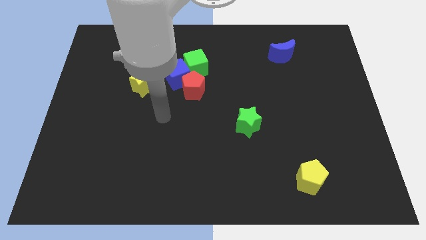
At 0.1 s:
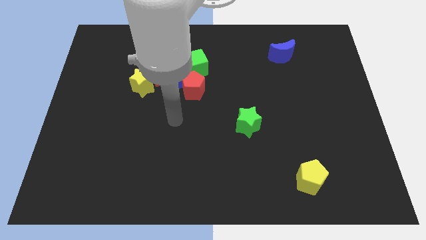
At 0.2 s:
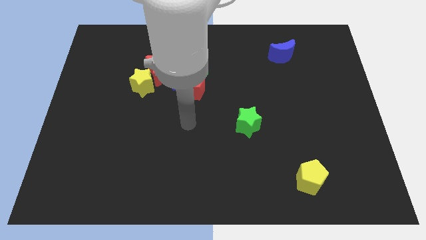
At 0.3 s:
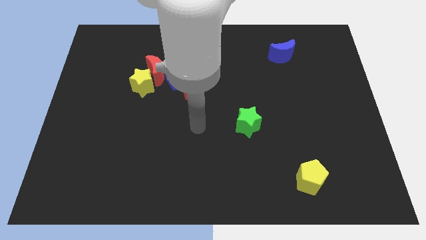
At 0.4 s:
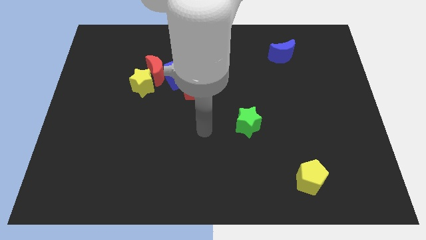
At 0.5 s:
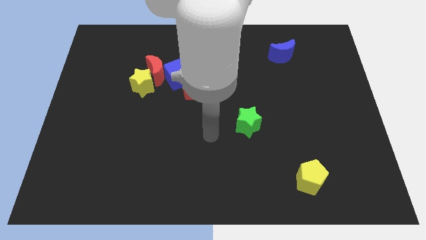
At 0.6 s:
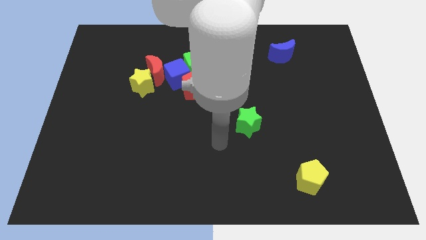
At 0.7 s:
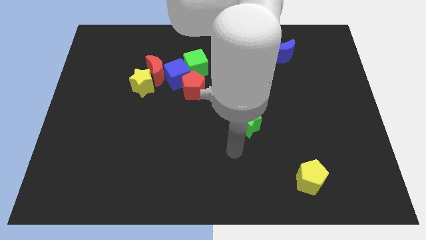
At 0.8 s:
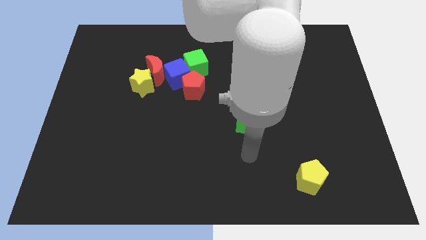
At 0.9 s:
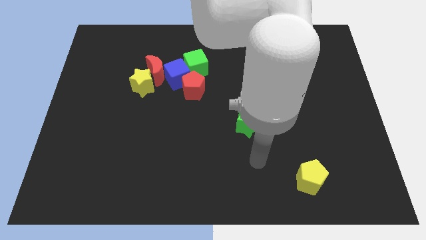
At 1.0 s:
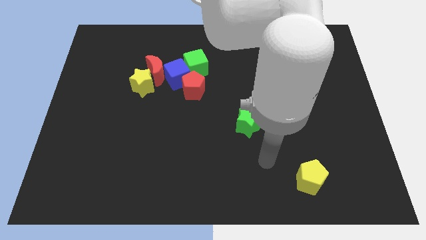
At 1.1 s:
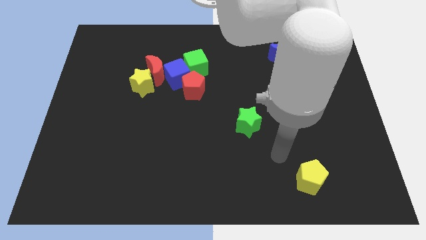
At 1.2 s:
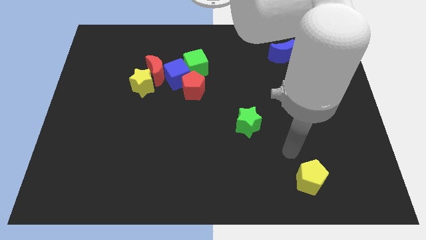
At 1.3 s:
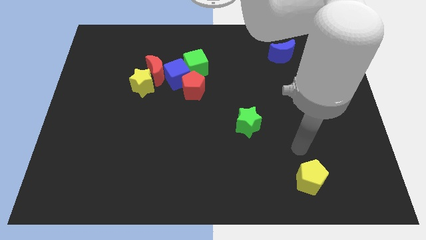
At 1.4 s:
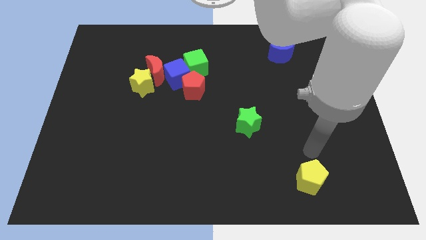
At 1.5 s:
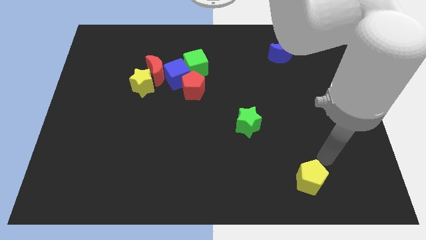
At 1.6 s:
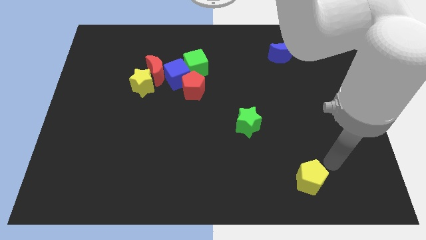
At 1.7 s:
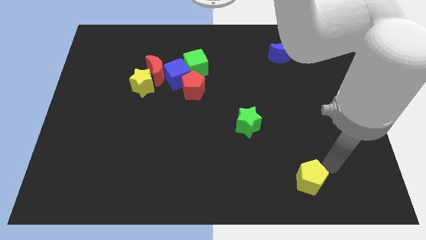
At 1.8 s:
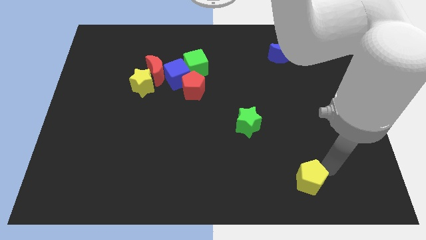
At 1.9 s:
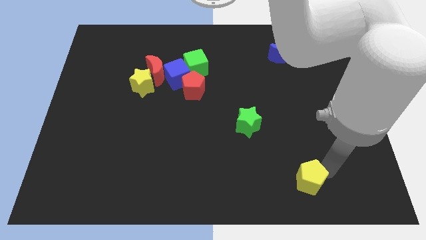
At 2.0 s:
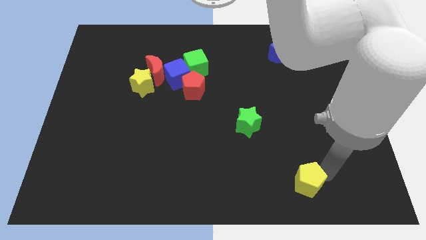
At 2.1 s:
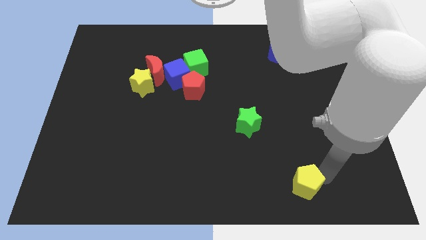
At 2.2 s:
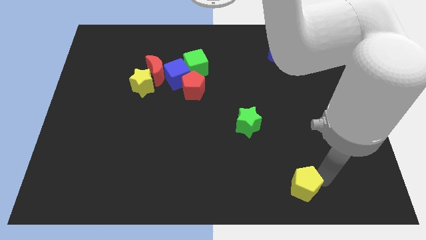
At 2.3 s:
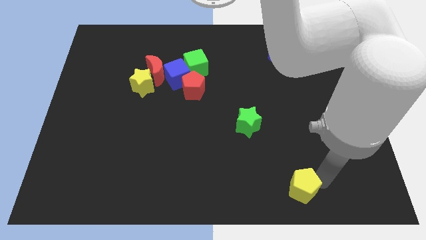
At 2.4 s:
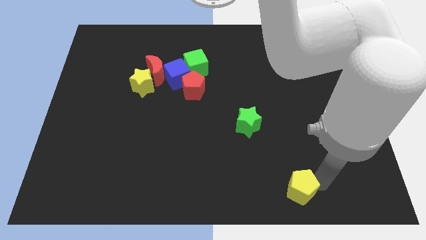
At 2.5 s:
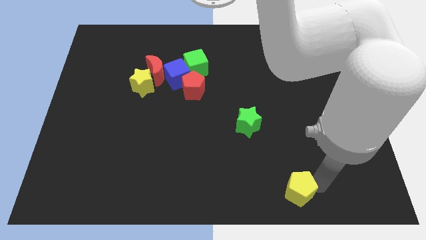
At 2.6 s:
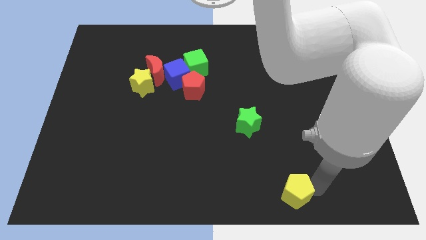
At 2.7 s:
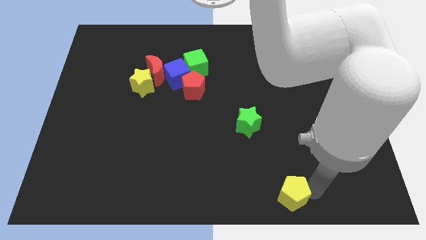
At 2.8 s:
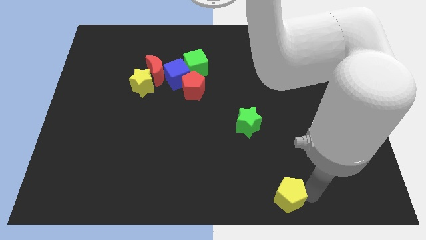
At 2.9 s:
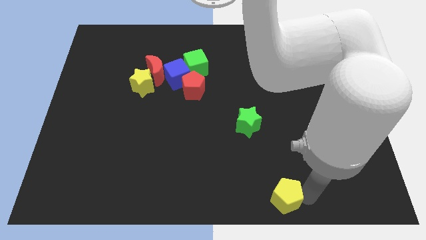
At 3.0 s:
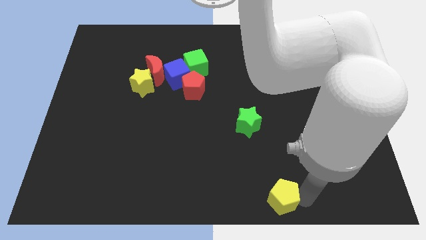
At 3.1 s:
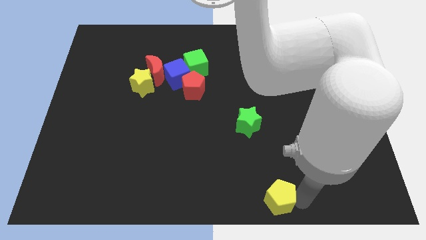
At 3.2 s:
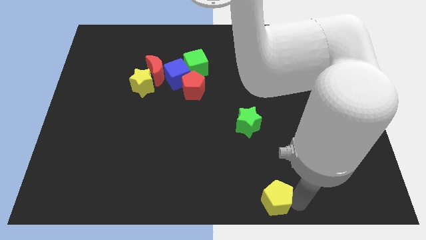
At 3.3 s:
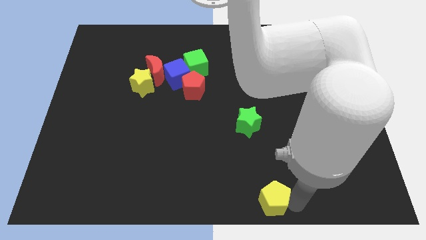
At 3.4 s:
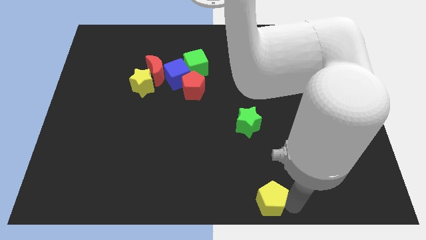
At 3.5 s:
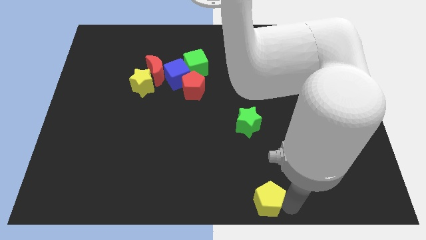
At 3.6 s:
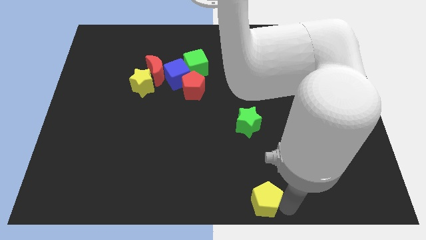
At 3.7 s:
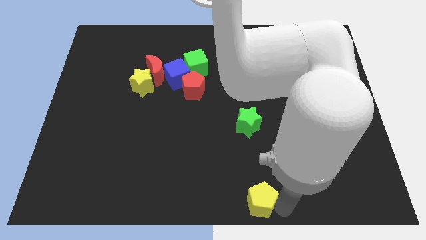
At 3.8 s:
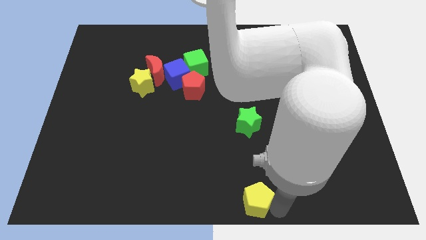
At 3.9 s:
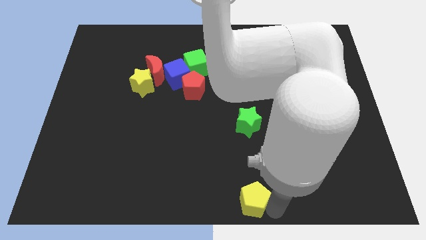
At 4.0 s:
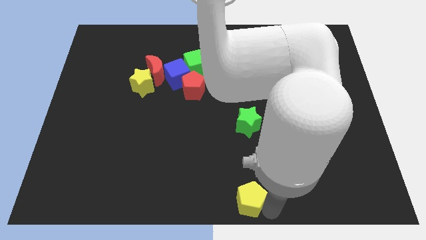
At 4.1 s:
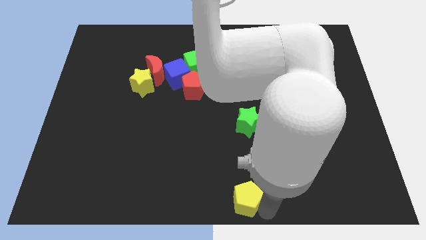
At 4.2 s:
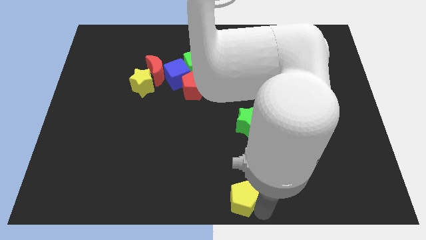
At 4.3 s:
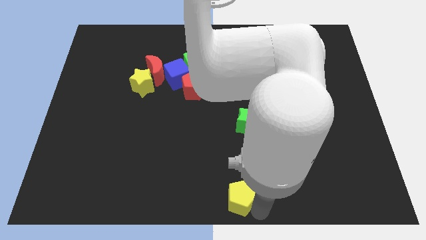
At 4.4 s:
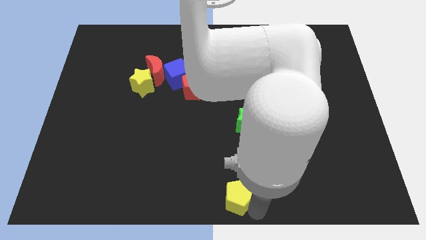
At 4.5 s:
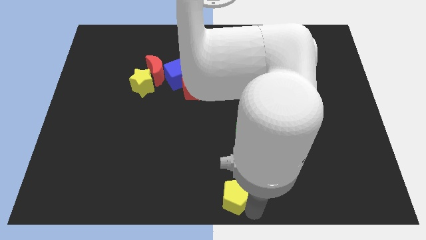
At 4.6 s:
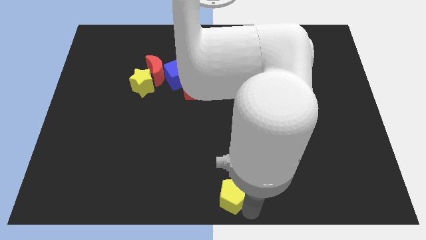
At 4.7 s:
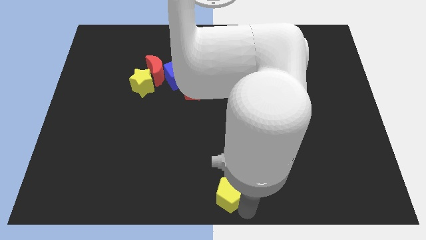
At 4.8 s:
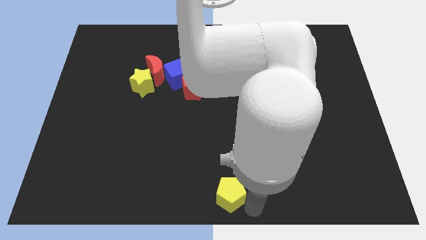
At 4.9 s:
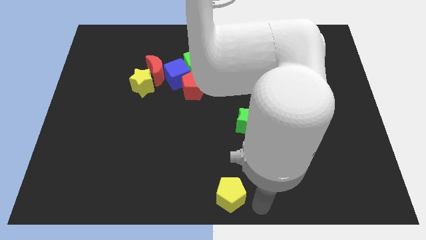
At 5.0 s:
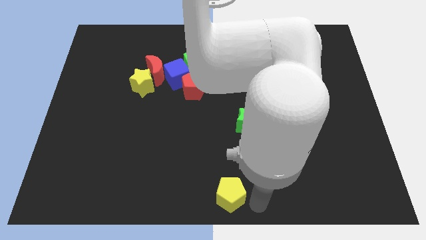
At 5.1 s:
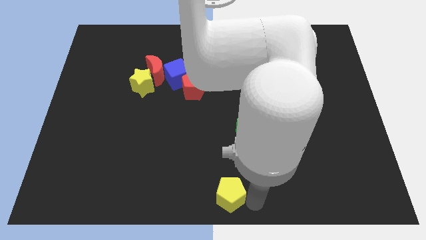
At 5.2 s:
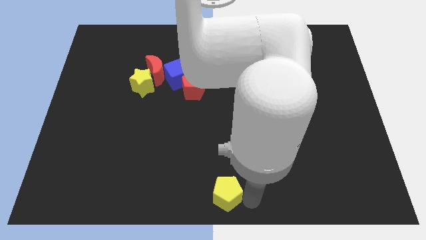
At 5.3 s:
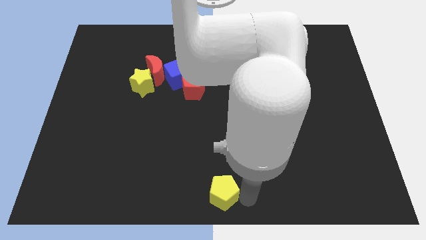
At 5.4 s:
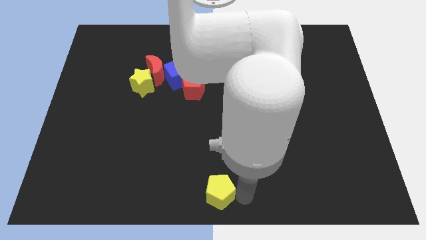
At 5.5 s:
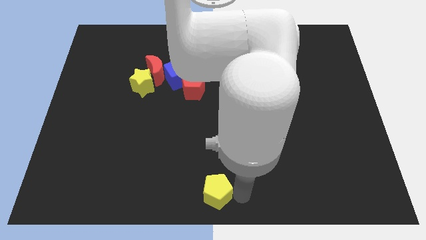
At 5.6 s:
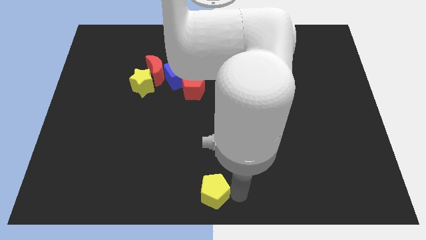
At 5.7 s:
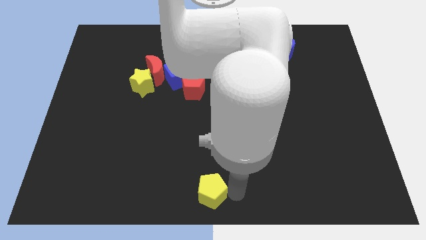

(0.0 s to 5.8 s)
slide the yellow pentagon left

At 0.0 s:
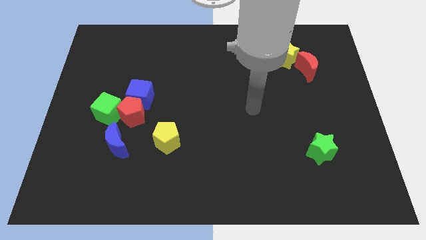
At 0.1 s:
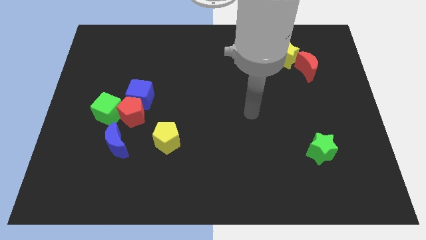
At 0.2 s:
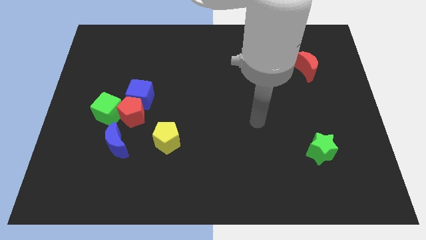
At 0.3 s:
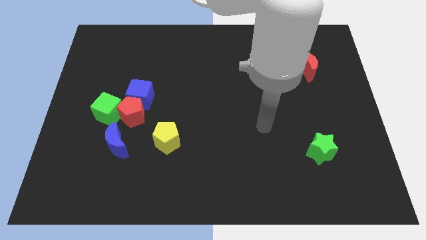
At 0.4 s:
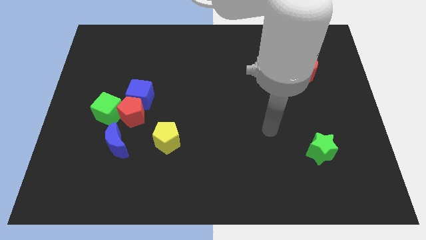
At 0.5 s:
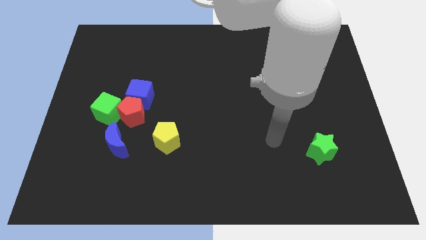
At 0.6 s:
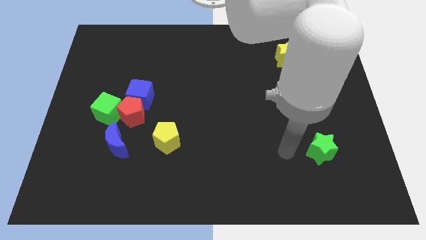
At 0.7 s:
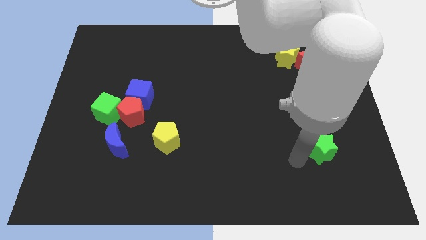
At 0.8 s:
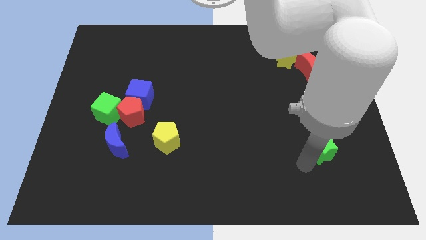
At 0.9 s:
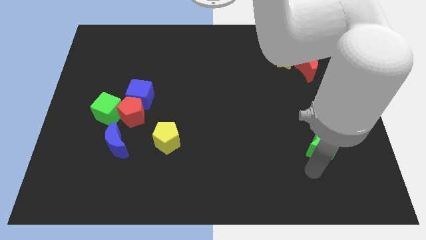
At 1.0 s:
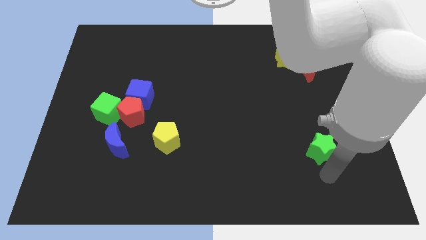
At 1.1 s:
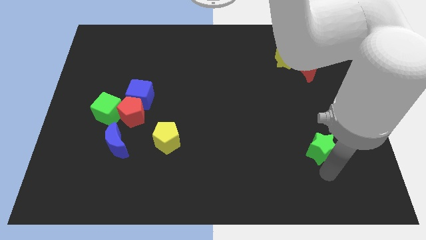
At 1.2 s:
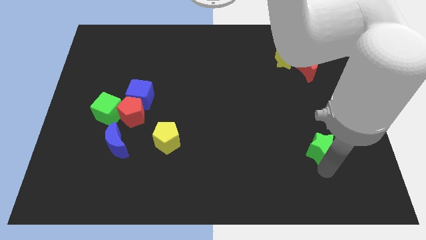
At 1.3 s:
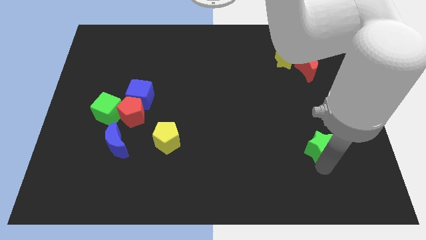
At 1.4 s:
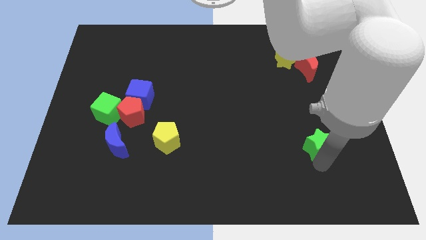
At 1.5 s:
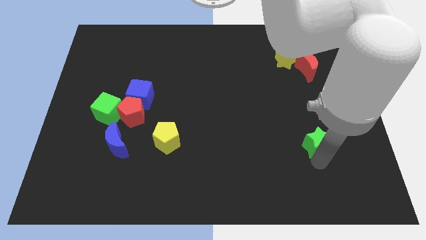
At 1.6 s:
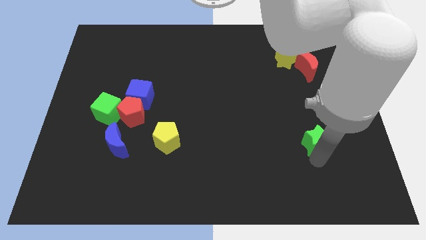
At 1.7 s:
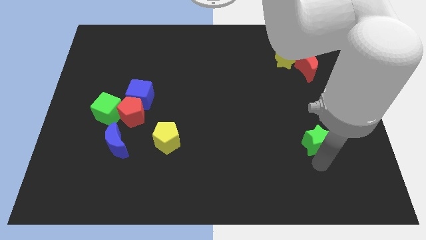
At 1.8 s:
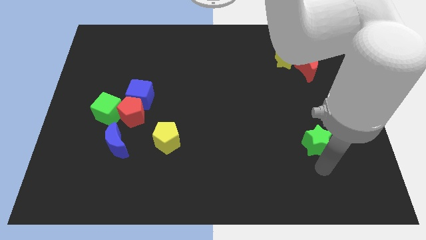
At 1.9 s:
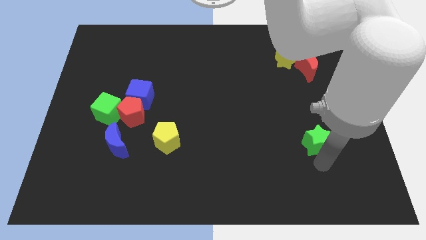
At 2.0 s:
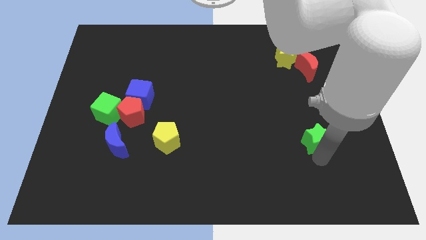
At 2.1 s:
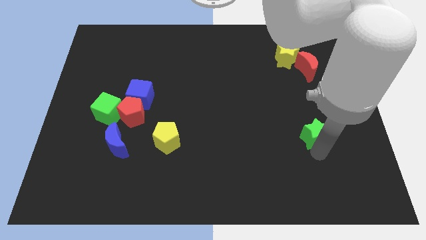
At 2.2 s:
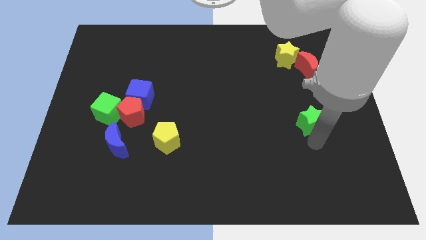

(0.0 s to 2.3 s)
slightly slide the green star up

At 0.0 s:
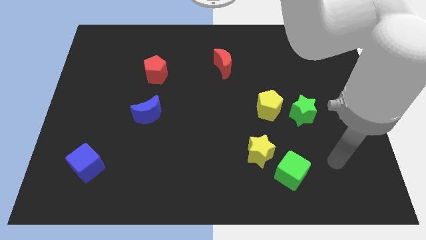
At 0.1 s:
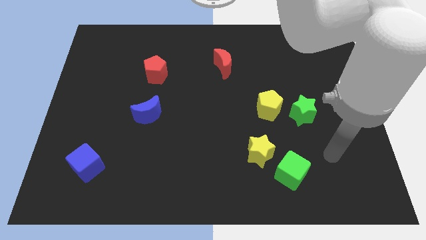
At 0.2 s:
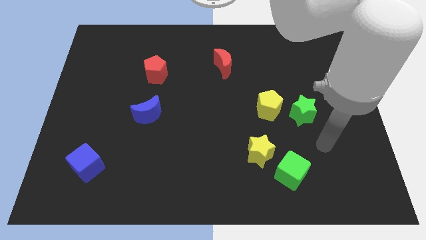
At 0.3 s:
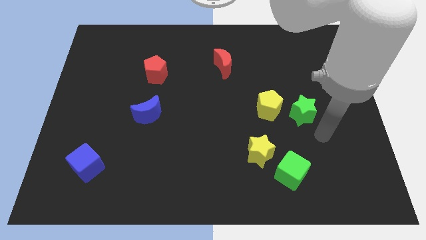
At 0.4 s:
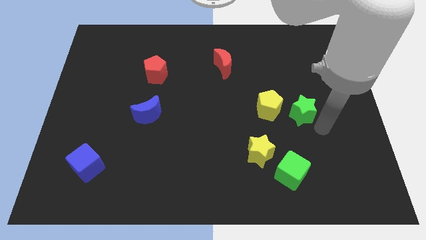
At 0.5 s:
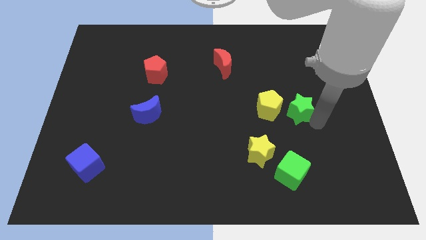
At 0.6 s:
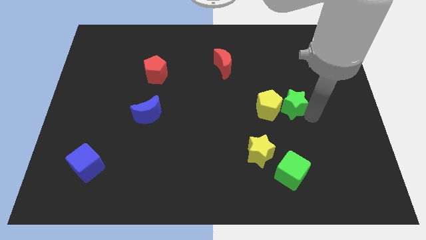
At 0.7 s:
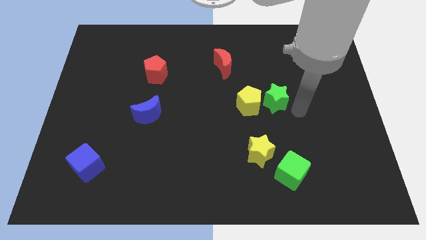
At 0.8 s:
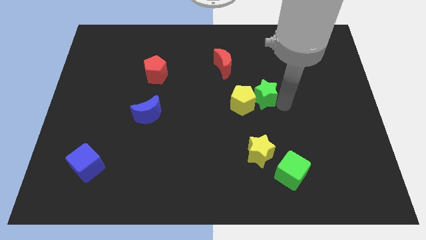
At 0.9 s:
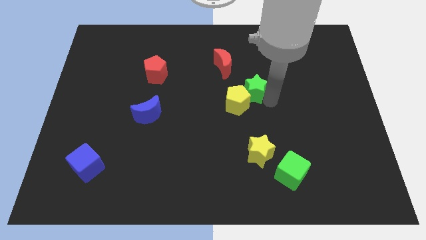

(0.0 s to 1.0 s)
slightly move the yellow pentagon to the left
